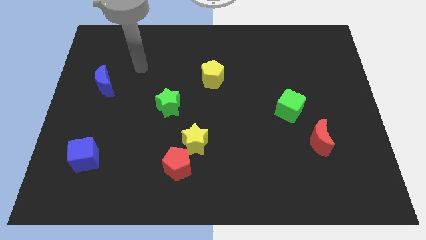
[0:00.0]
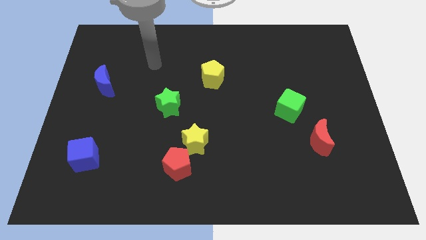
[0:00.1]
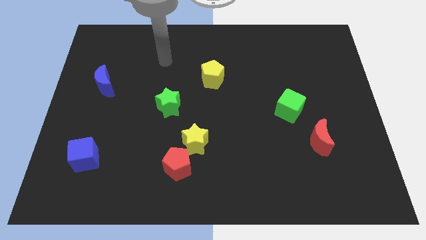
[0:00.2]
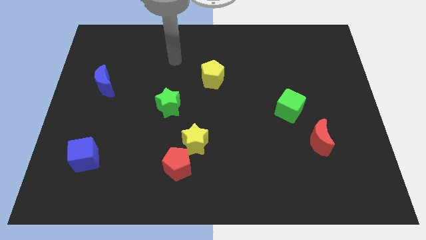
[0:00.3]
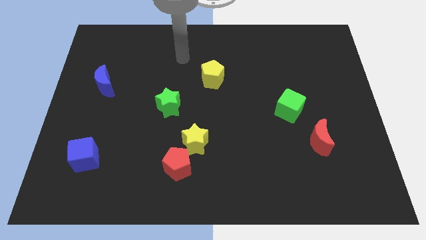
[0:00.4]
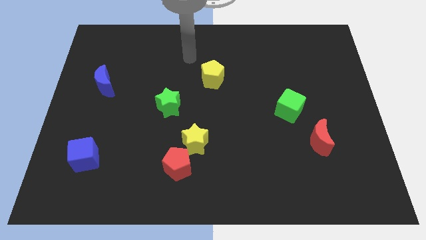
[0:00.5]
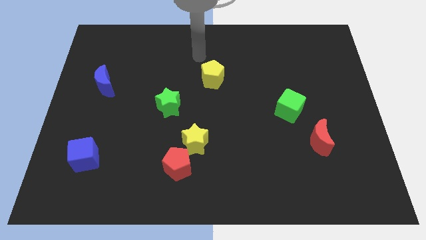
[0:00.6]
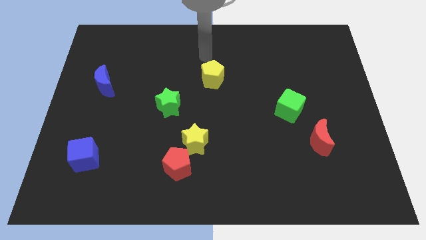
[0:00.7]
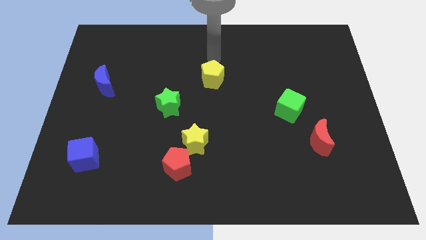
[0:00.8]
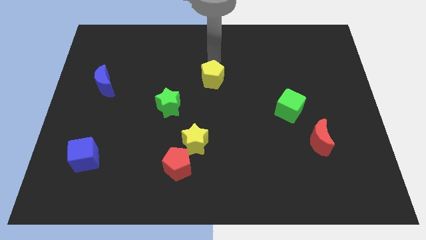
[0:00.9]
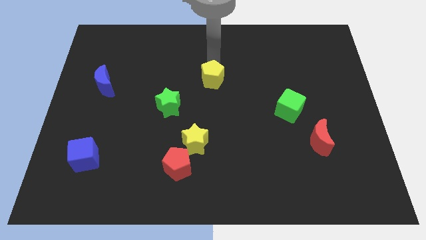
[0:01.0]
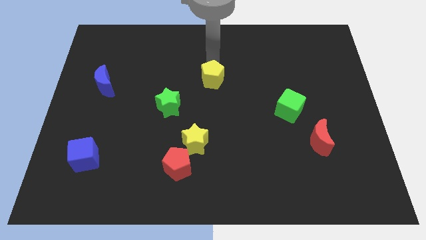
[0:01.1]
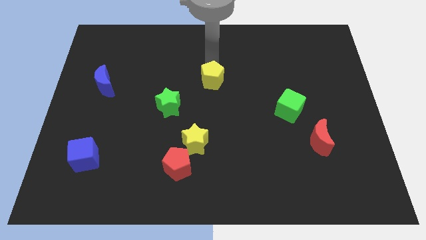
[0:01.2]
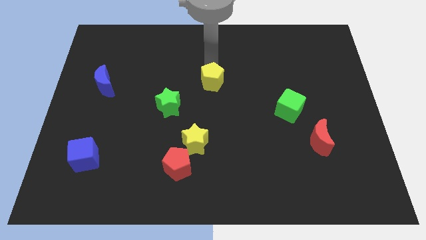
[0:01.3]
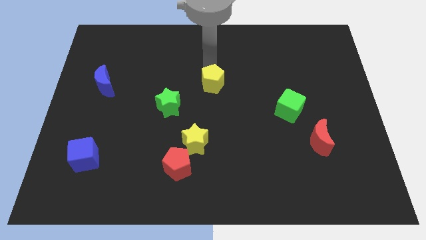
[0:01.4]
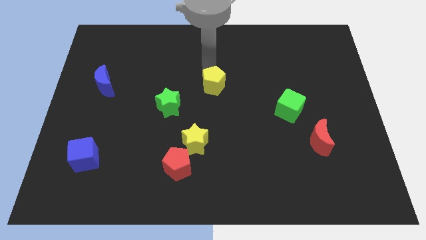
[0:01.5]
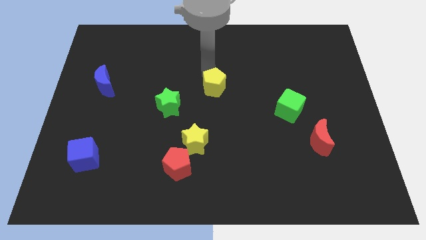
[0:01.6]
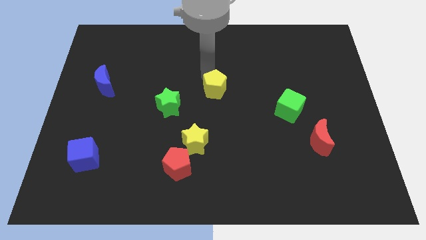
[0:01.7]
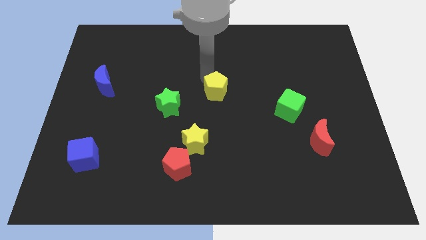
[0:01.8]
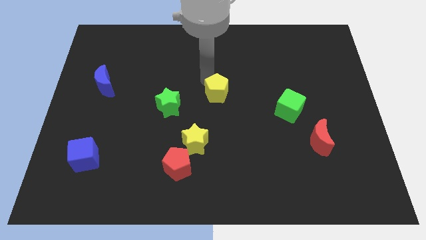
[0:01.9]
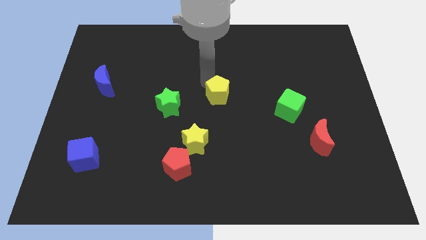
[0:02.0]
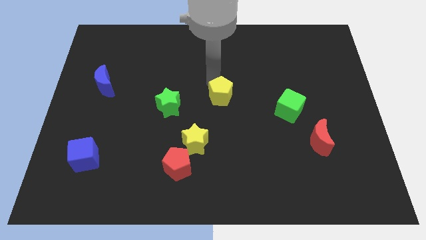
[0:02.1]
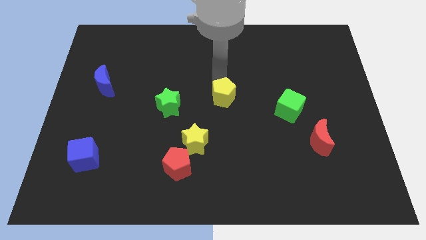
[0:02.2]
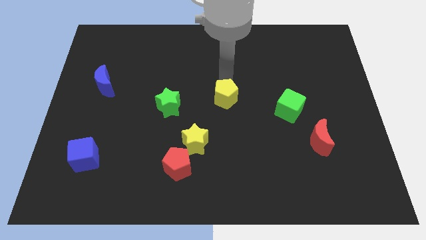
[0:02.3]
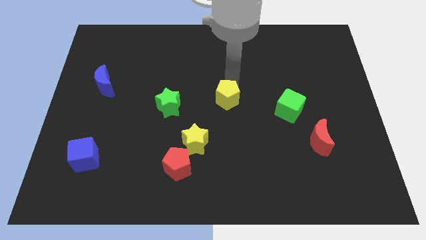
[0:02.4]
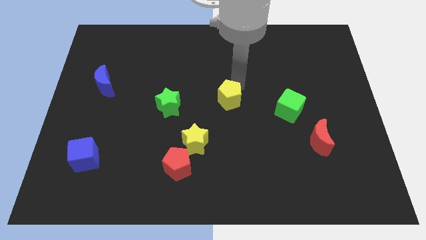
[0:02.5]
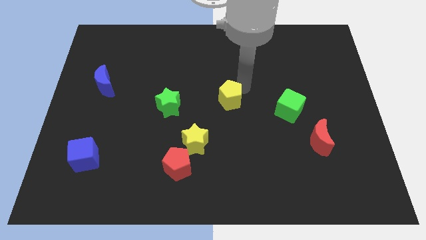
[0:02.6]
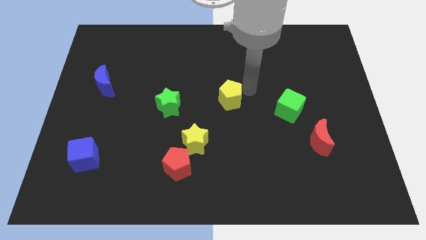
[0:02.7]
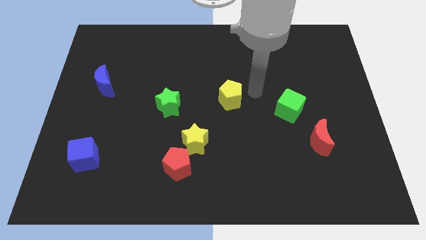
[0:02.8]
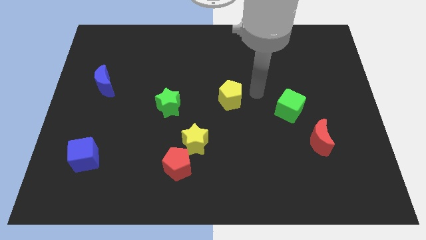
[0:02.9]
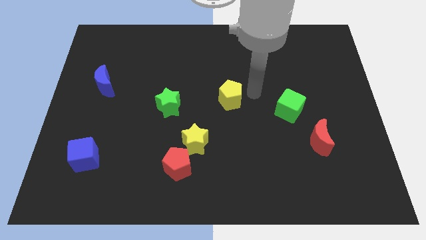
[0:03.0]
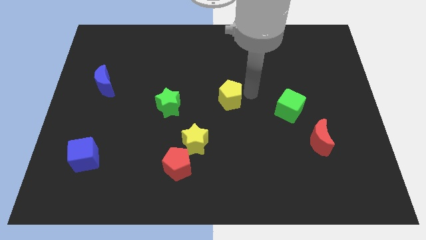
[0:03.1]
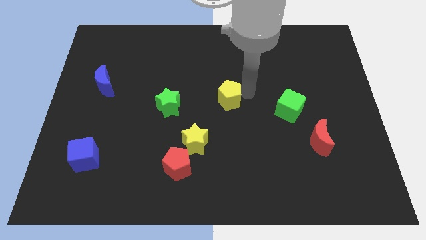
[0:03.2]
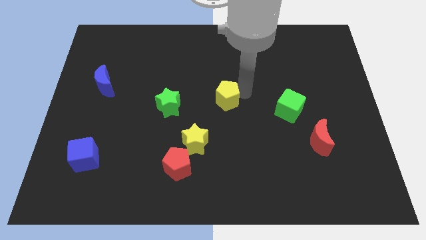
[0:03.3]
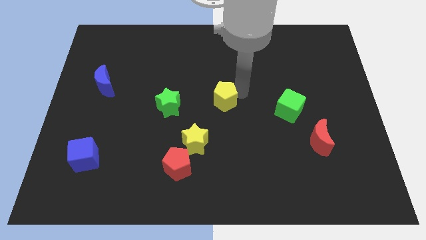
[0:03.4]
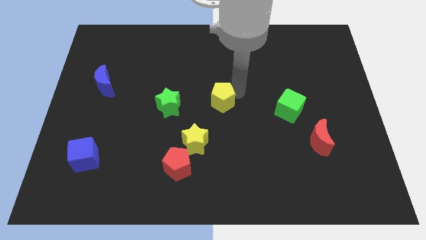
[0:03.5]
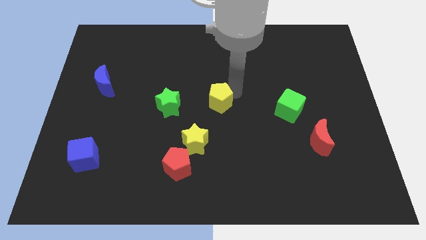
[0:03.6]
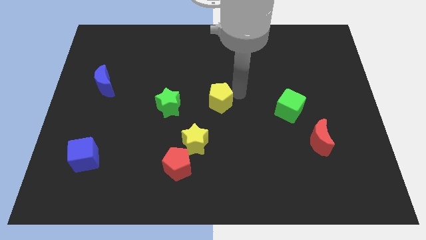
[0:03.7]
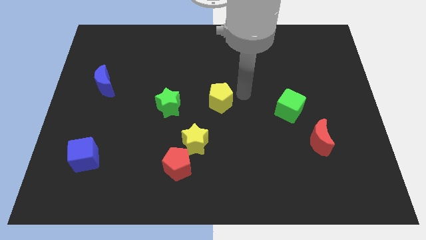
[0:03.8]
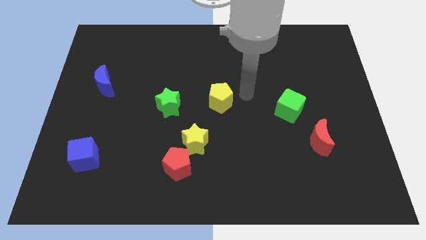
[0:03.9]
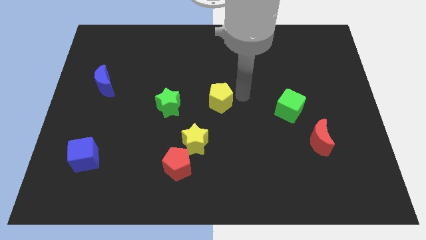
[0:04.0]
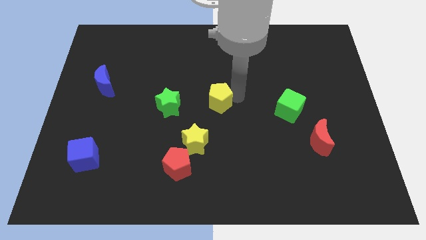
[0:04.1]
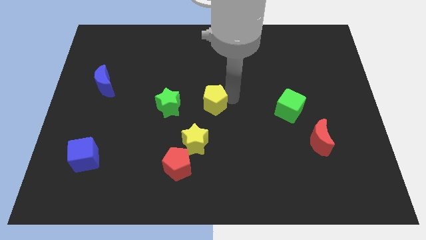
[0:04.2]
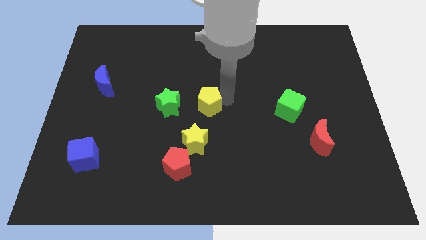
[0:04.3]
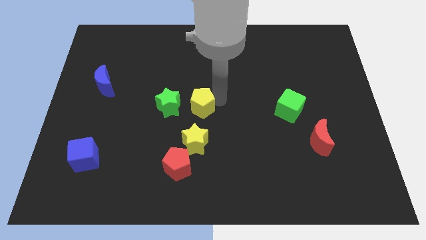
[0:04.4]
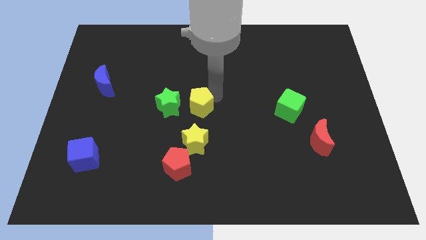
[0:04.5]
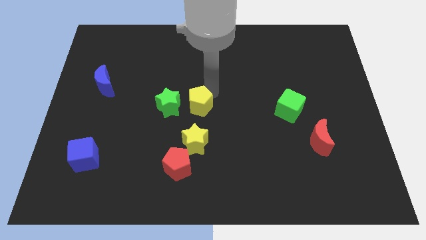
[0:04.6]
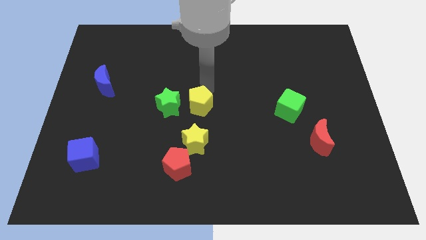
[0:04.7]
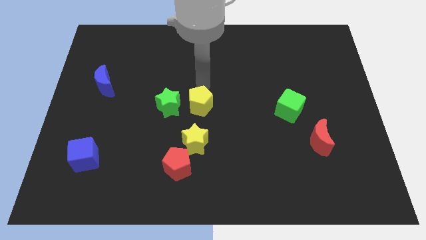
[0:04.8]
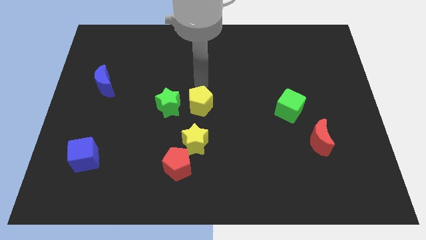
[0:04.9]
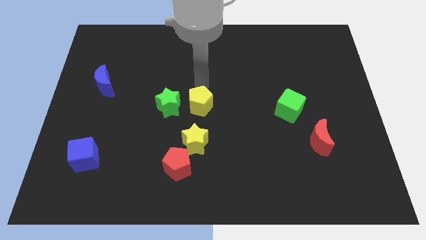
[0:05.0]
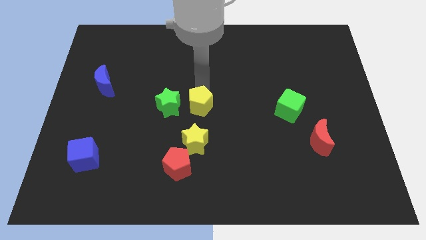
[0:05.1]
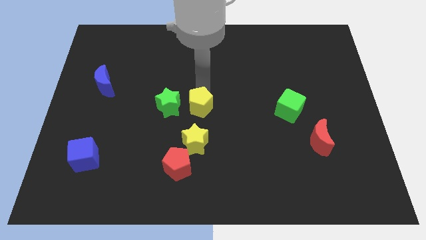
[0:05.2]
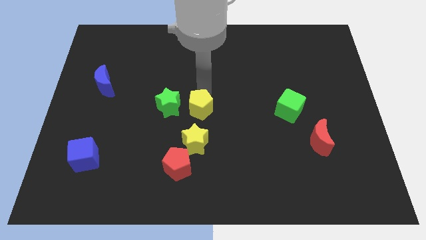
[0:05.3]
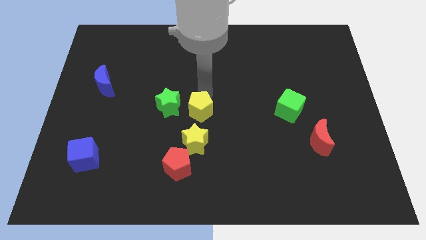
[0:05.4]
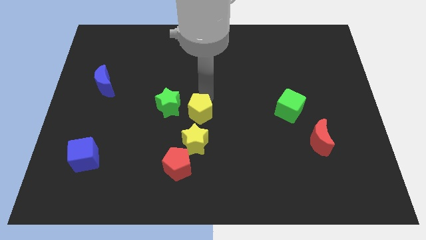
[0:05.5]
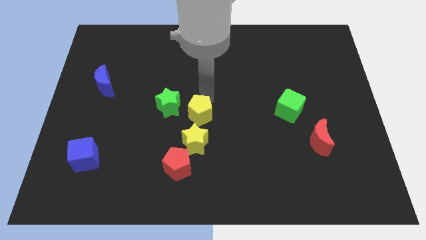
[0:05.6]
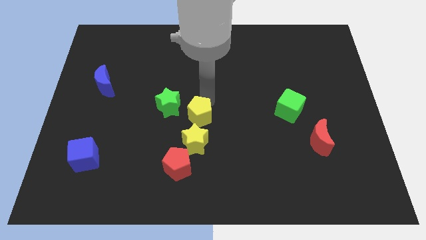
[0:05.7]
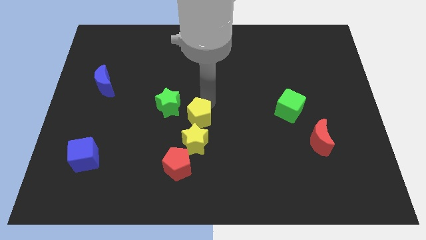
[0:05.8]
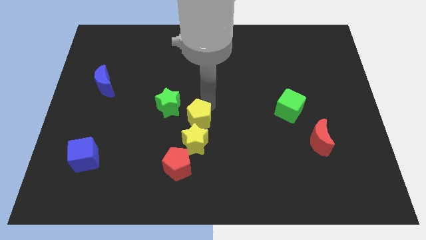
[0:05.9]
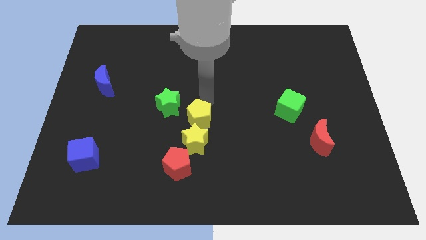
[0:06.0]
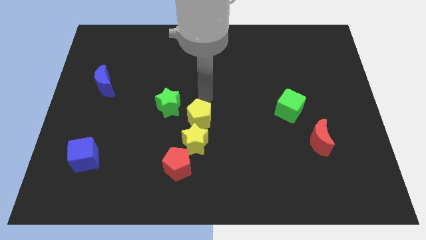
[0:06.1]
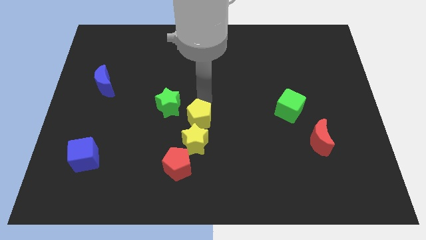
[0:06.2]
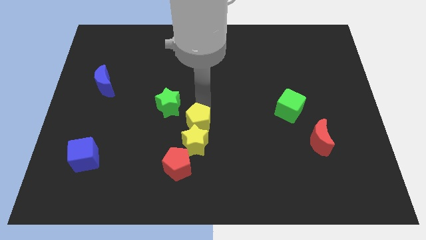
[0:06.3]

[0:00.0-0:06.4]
push the yellow pentagon towards the yellow star

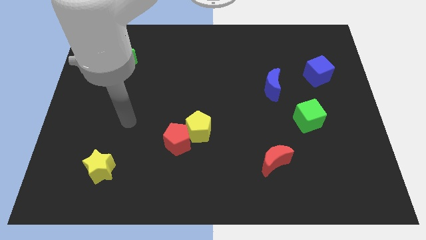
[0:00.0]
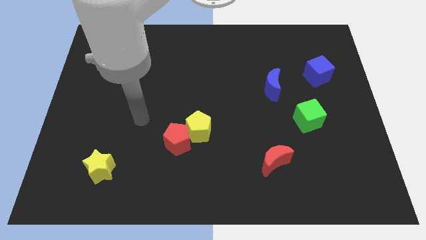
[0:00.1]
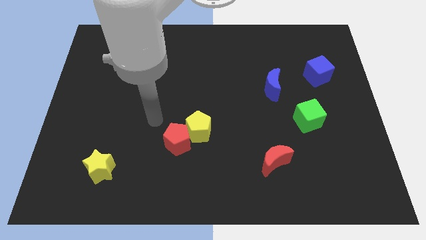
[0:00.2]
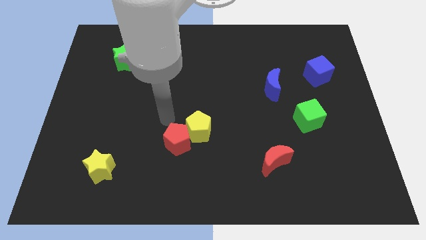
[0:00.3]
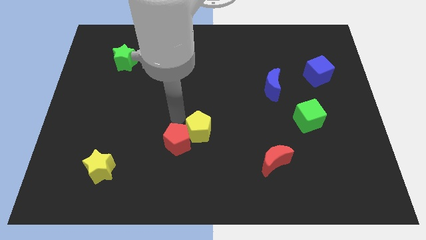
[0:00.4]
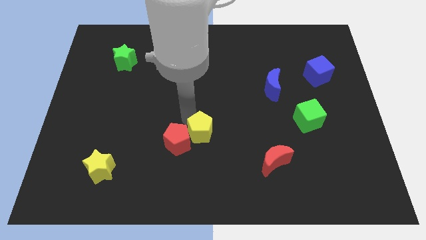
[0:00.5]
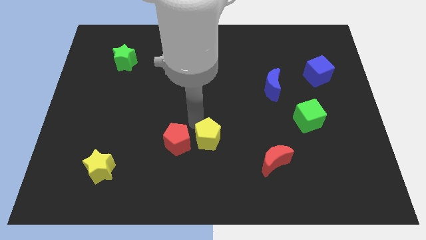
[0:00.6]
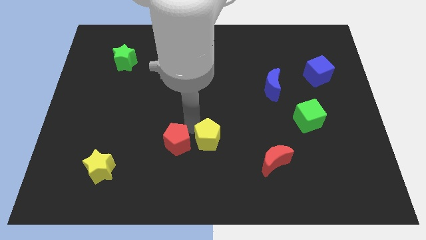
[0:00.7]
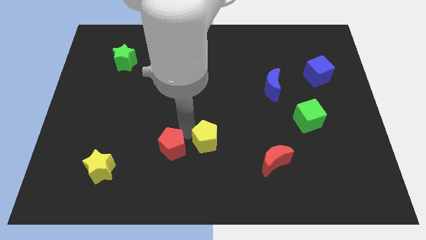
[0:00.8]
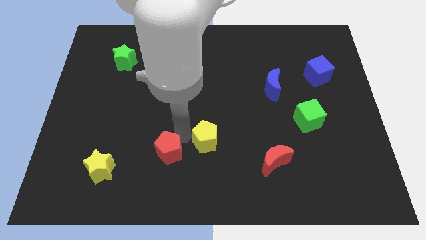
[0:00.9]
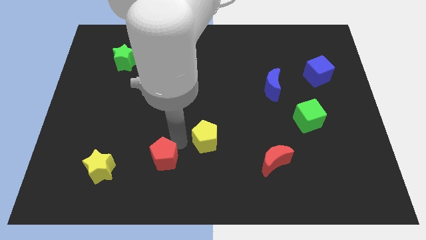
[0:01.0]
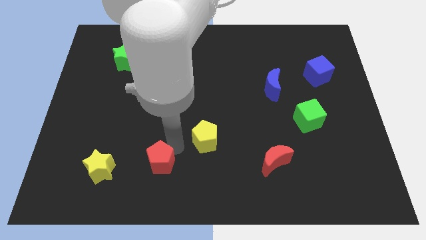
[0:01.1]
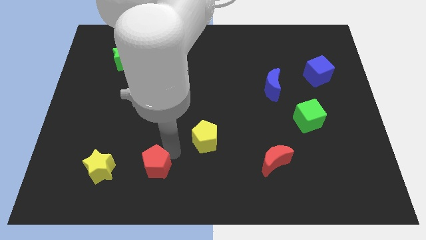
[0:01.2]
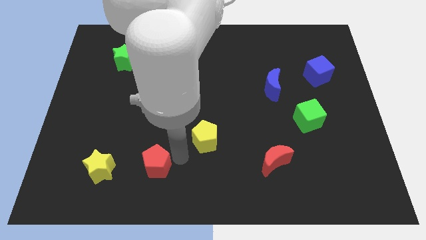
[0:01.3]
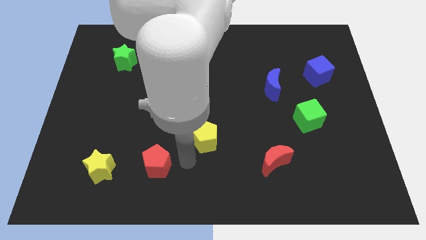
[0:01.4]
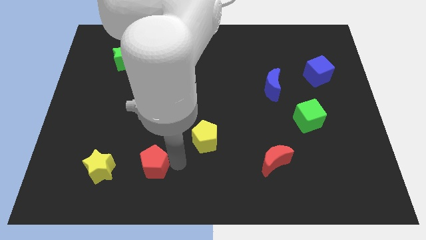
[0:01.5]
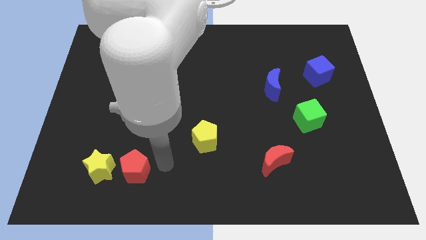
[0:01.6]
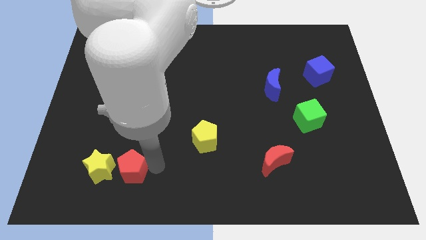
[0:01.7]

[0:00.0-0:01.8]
slide the red pentagon to the yellow star
